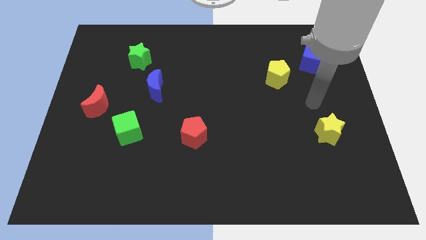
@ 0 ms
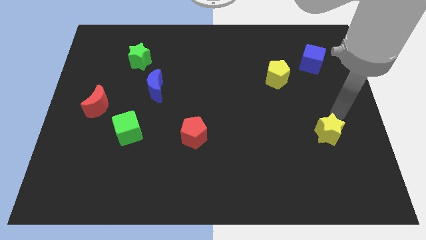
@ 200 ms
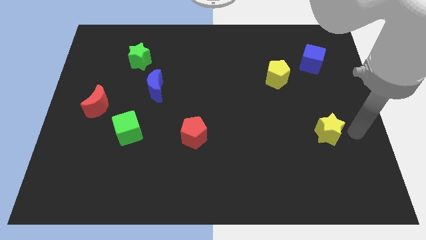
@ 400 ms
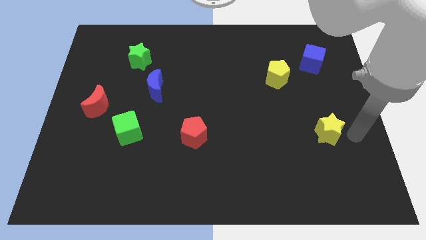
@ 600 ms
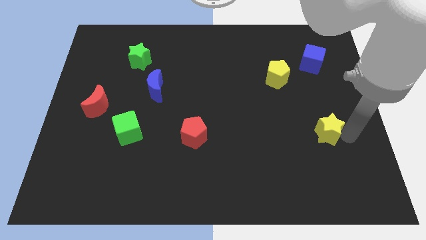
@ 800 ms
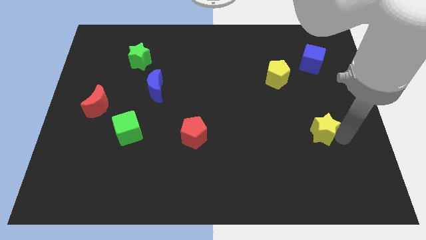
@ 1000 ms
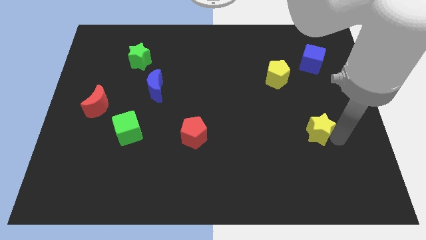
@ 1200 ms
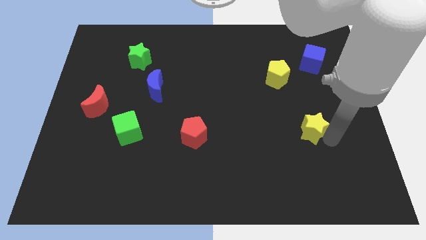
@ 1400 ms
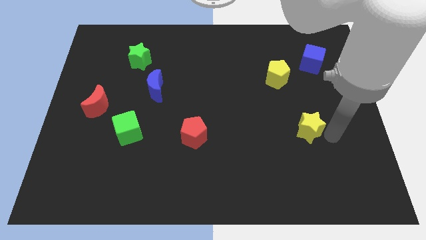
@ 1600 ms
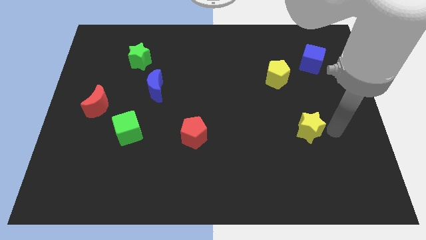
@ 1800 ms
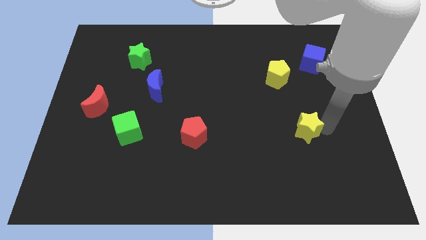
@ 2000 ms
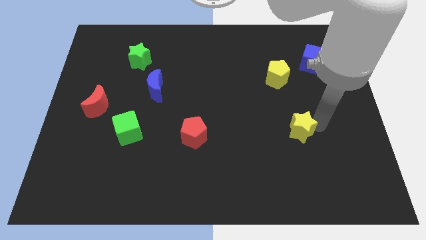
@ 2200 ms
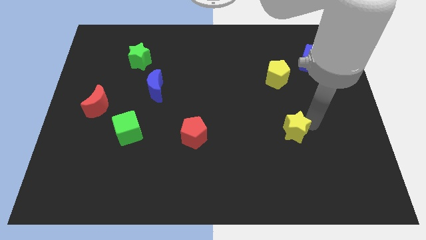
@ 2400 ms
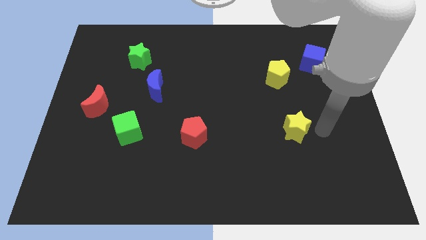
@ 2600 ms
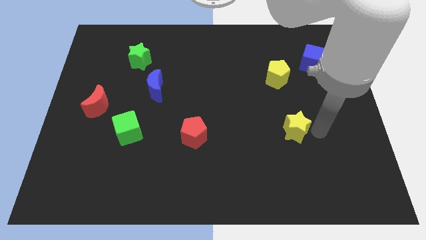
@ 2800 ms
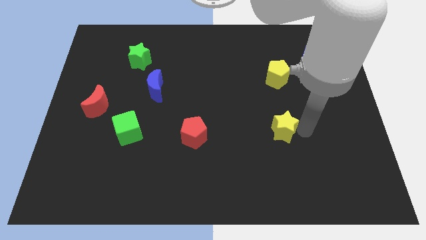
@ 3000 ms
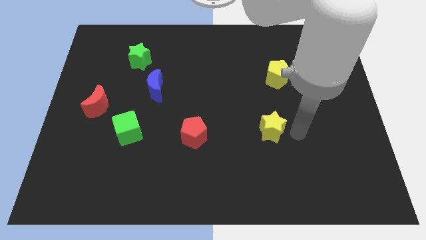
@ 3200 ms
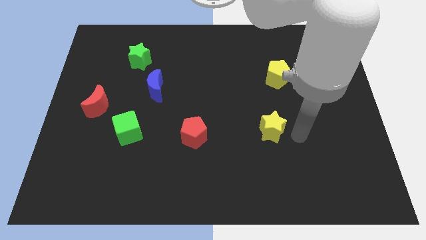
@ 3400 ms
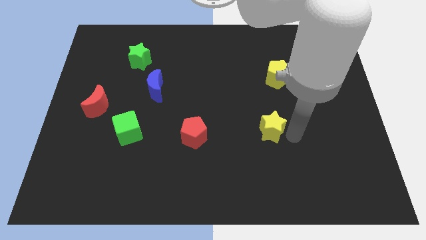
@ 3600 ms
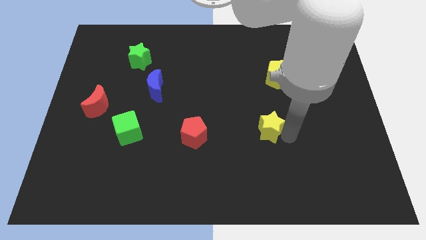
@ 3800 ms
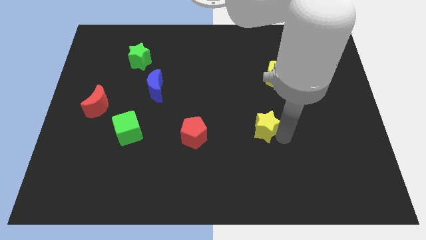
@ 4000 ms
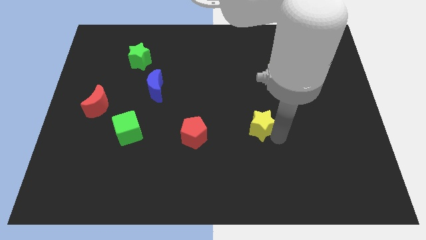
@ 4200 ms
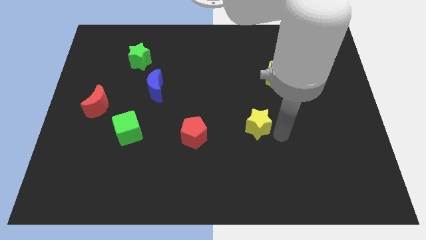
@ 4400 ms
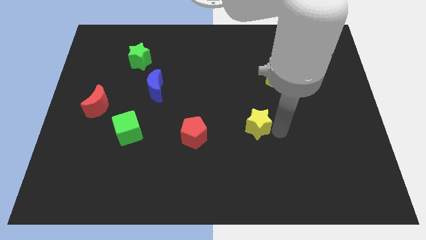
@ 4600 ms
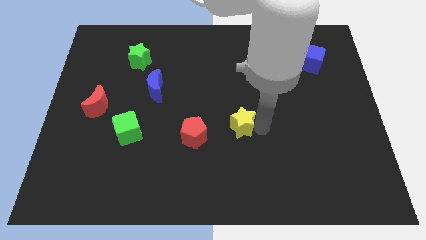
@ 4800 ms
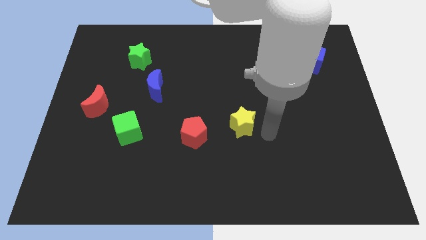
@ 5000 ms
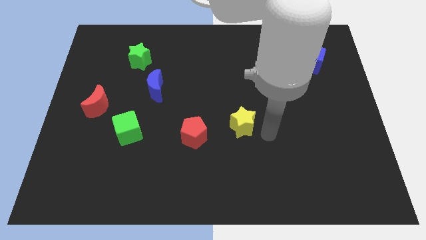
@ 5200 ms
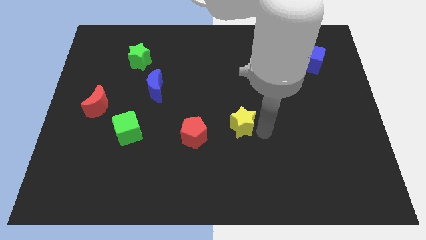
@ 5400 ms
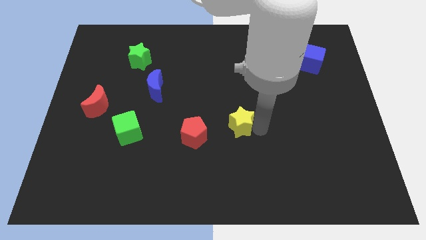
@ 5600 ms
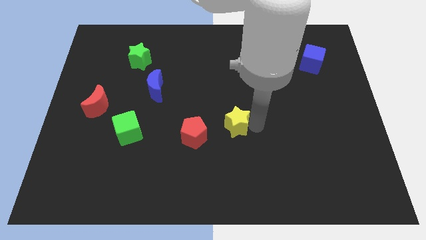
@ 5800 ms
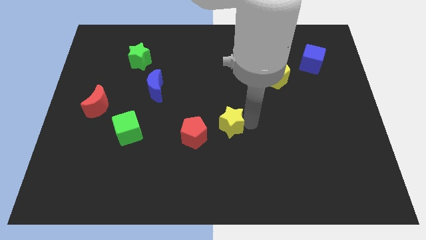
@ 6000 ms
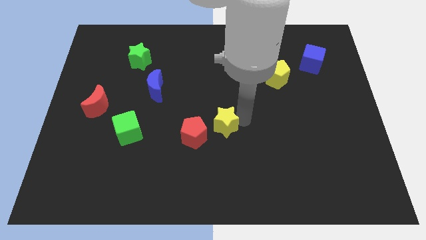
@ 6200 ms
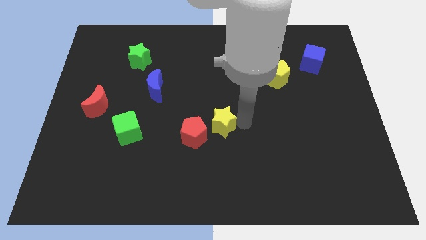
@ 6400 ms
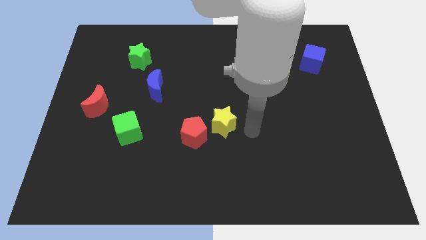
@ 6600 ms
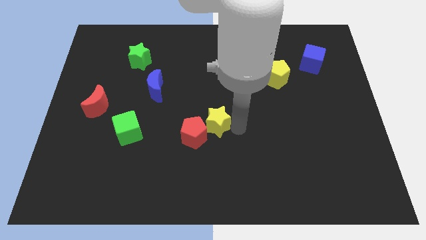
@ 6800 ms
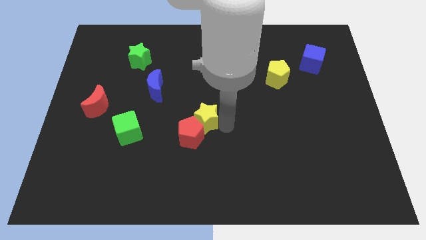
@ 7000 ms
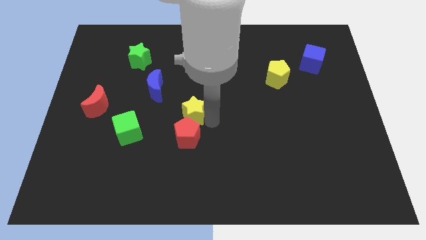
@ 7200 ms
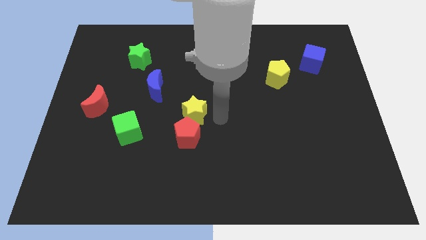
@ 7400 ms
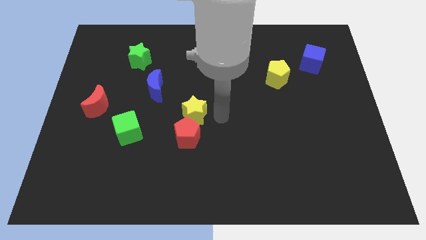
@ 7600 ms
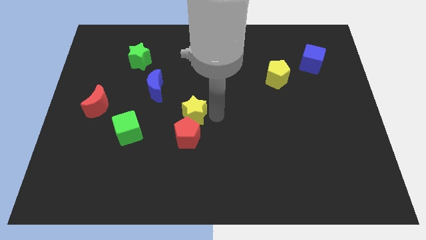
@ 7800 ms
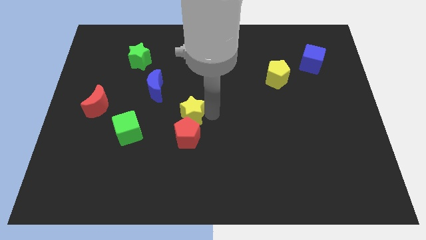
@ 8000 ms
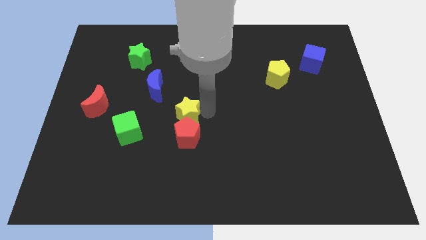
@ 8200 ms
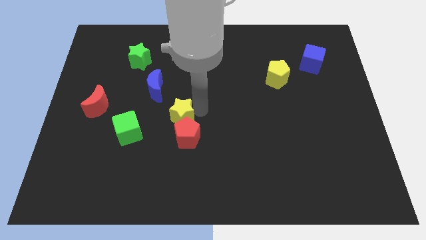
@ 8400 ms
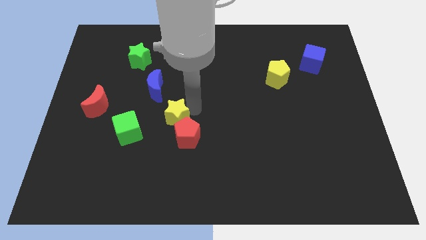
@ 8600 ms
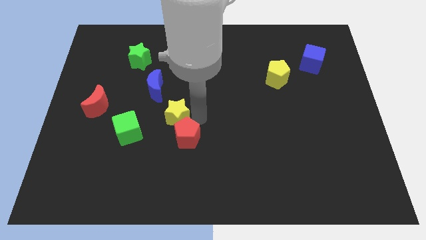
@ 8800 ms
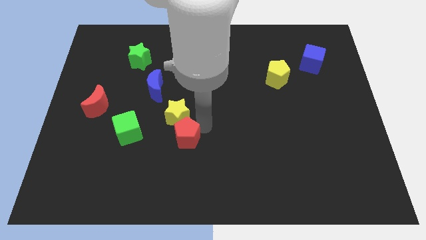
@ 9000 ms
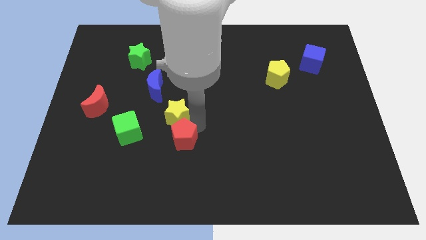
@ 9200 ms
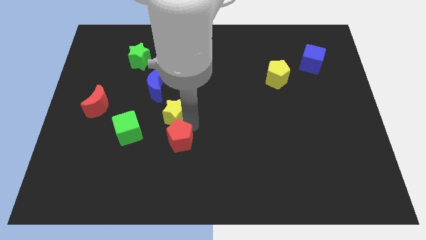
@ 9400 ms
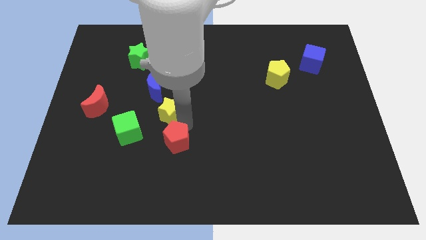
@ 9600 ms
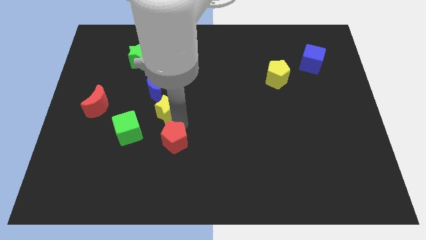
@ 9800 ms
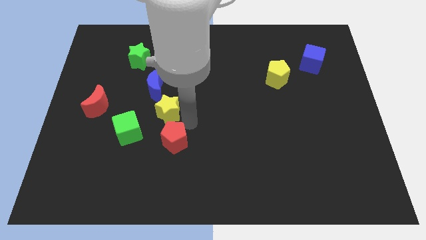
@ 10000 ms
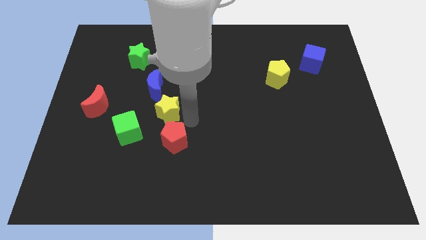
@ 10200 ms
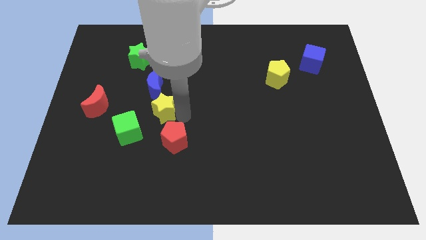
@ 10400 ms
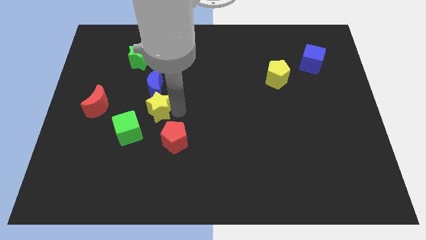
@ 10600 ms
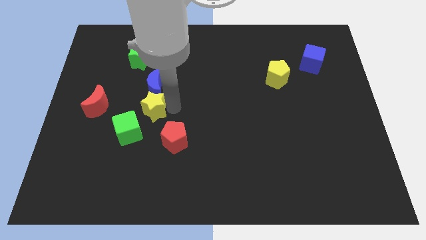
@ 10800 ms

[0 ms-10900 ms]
put the yellow star to the bottom left of the blue moon

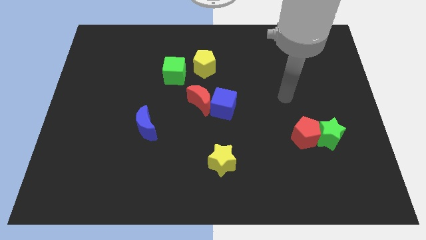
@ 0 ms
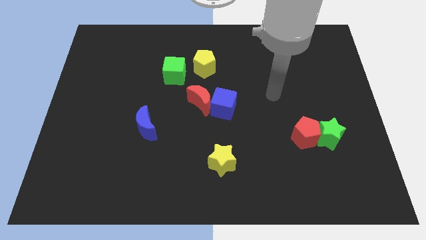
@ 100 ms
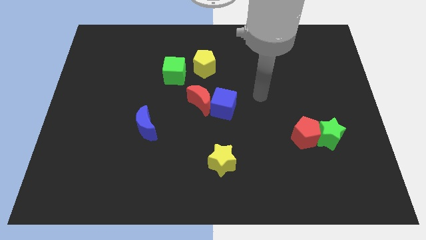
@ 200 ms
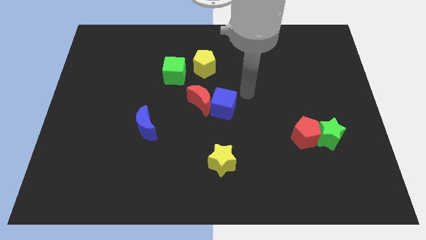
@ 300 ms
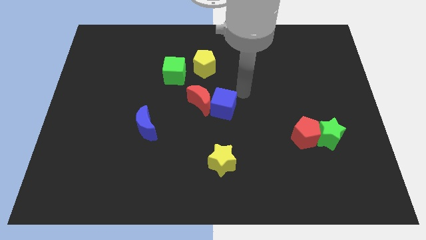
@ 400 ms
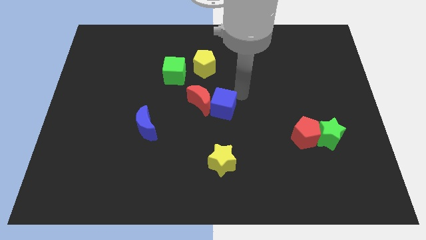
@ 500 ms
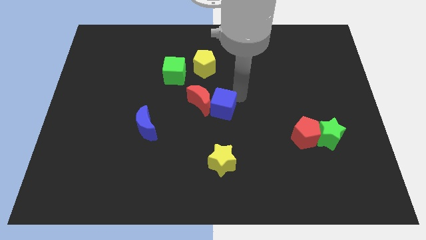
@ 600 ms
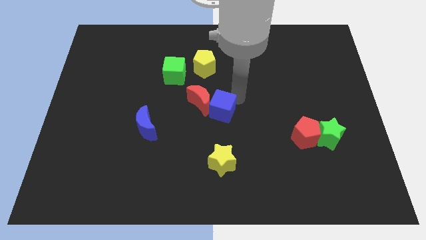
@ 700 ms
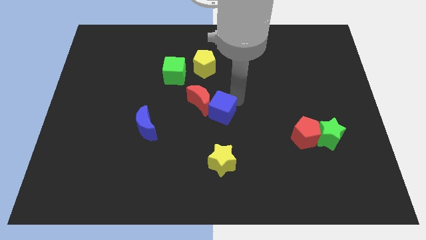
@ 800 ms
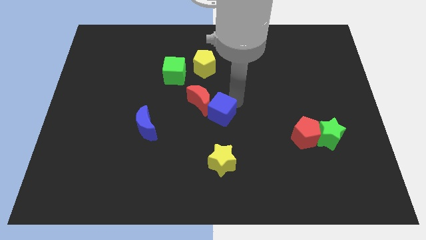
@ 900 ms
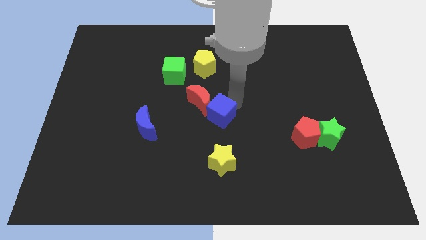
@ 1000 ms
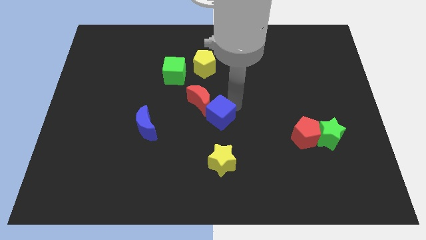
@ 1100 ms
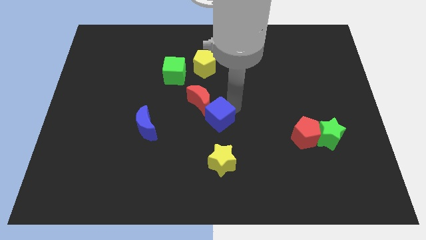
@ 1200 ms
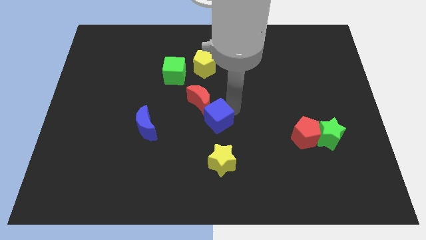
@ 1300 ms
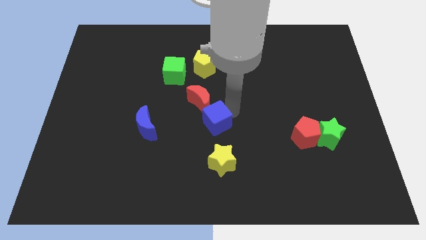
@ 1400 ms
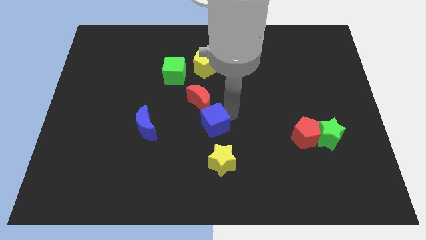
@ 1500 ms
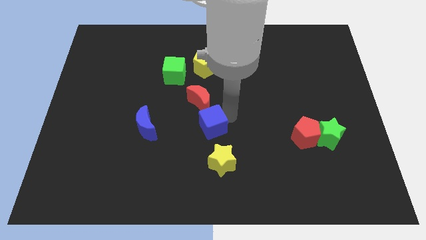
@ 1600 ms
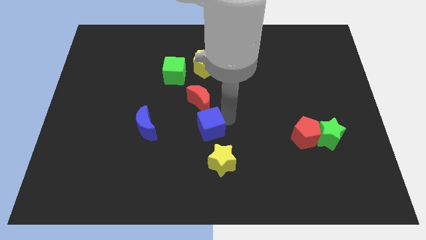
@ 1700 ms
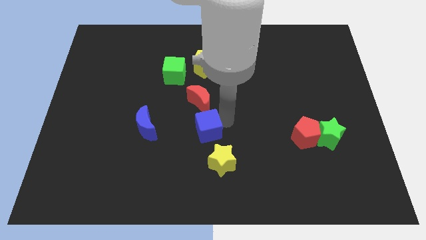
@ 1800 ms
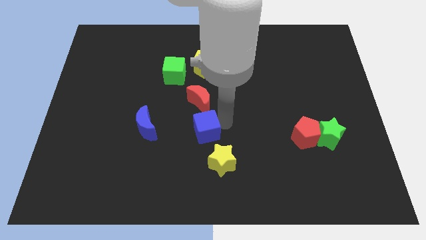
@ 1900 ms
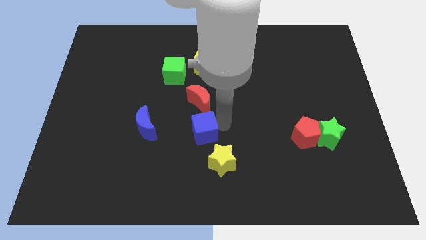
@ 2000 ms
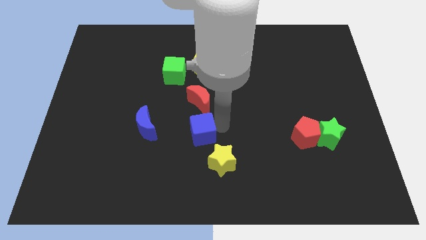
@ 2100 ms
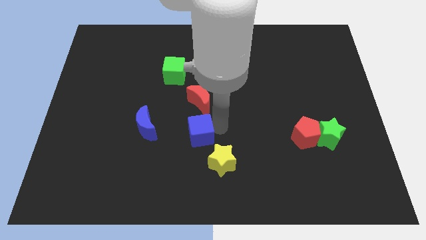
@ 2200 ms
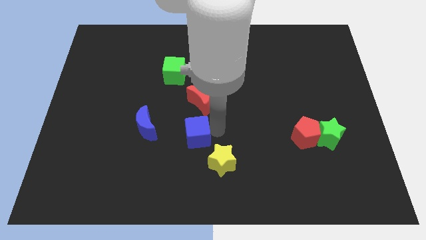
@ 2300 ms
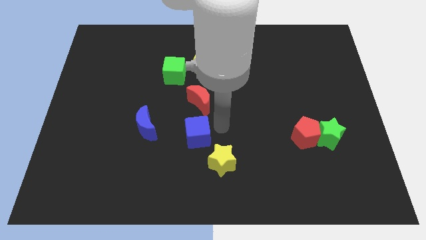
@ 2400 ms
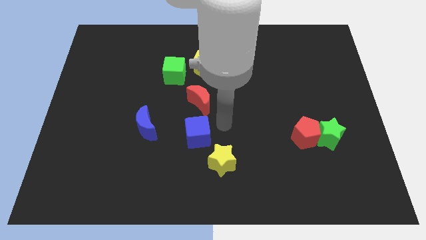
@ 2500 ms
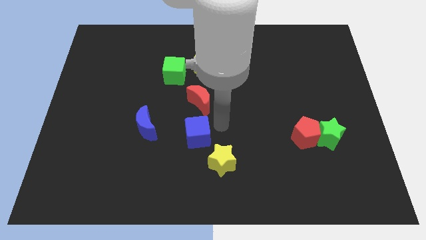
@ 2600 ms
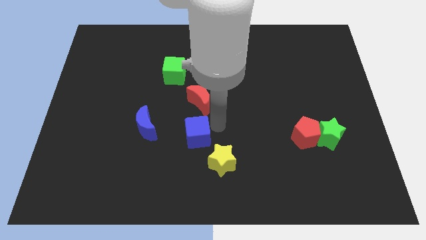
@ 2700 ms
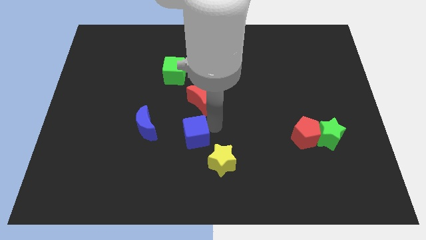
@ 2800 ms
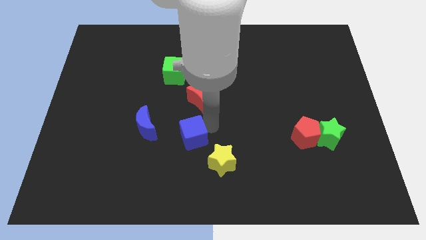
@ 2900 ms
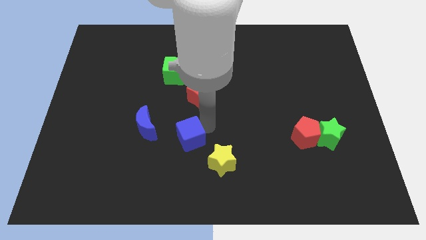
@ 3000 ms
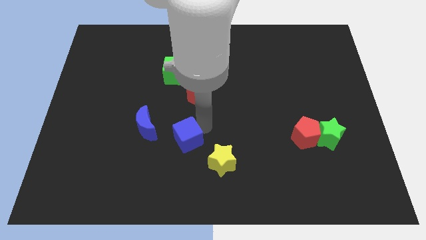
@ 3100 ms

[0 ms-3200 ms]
push the blue cube to the bottom right side of the blue moon
